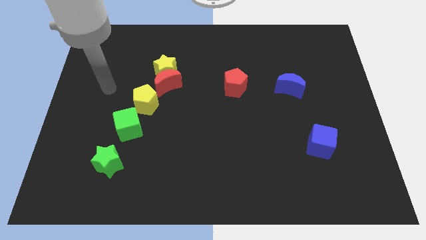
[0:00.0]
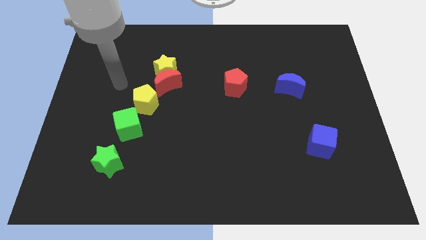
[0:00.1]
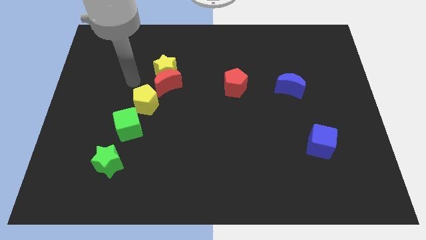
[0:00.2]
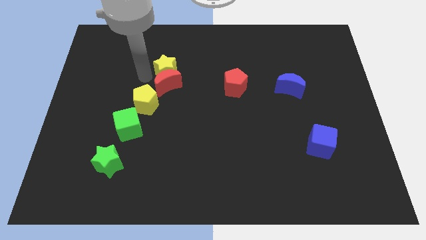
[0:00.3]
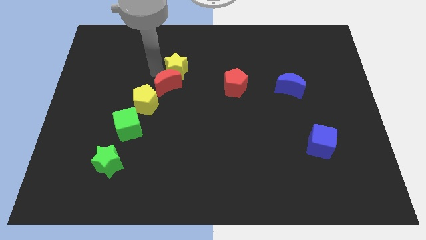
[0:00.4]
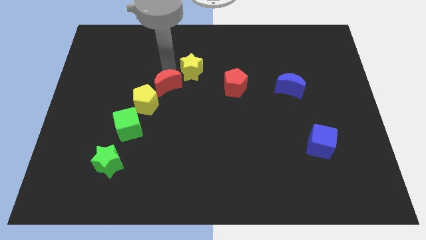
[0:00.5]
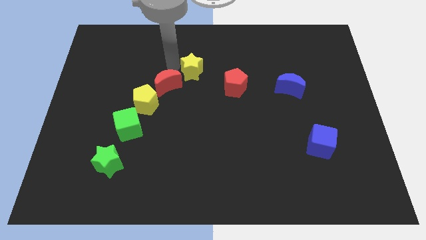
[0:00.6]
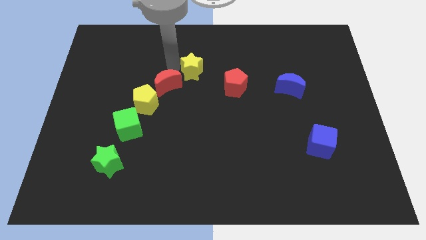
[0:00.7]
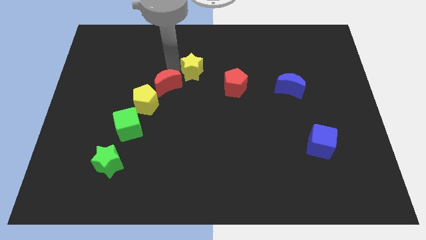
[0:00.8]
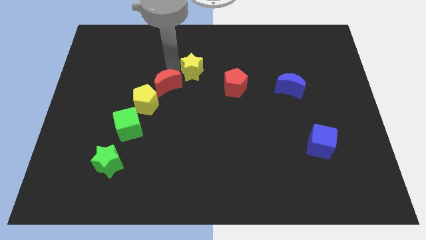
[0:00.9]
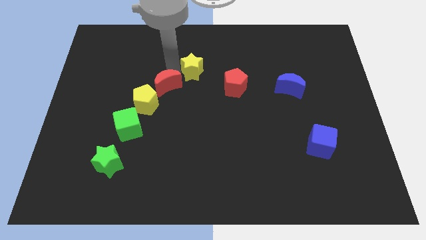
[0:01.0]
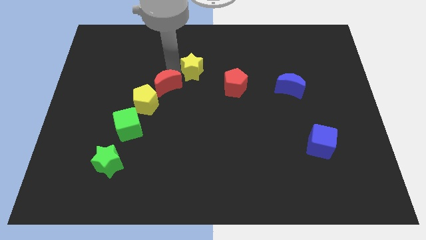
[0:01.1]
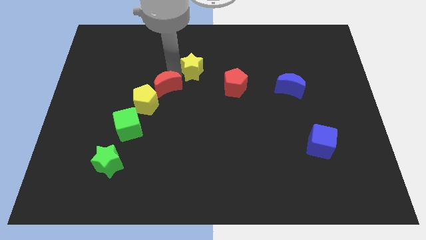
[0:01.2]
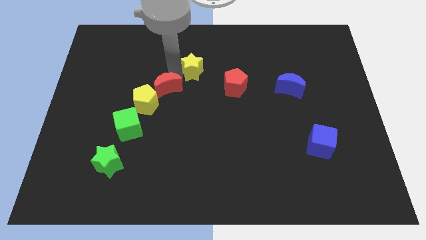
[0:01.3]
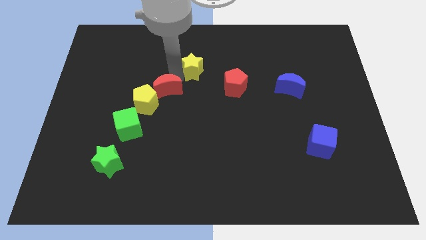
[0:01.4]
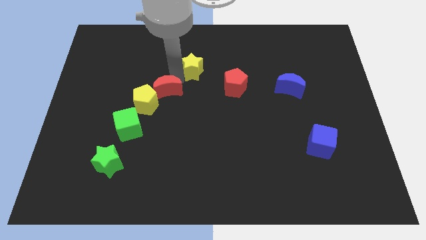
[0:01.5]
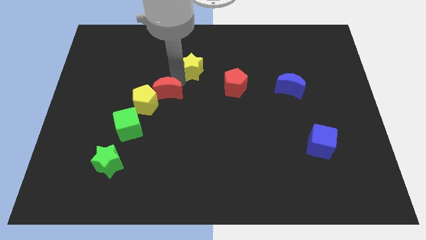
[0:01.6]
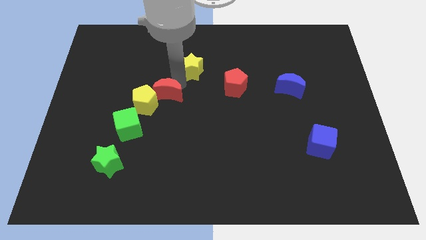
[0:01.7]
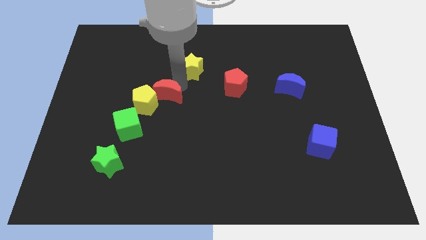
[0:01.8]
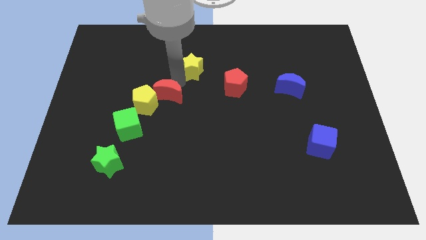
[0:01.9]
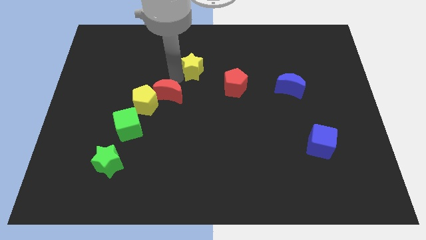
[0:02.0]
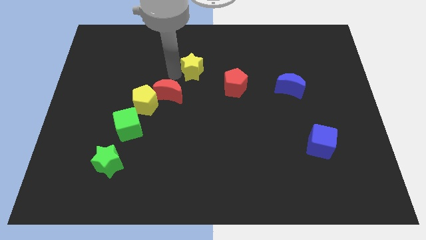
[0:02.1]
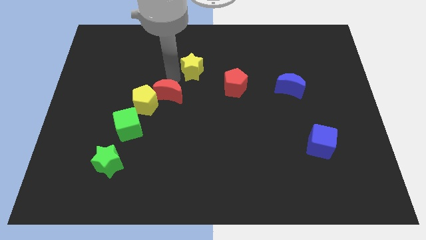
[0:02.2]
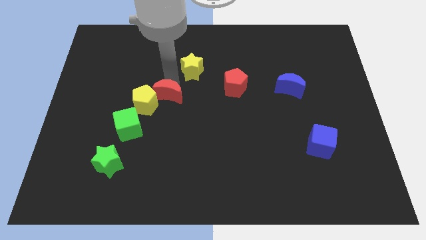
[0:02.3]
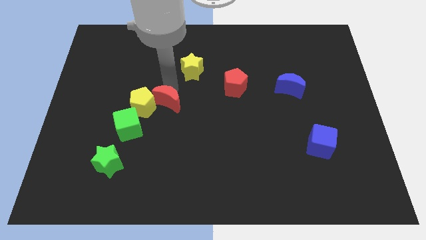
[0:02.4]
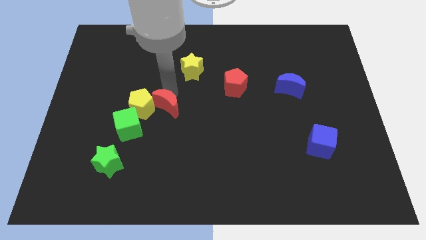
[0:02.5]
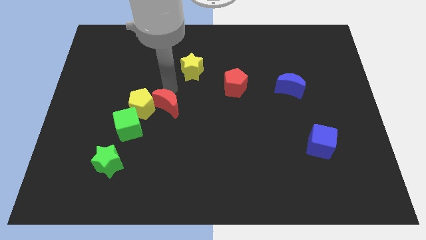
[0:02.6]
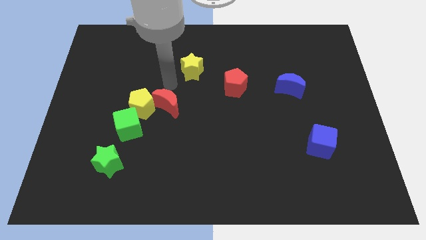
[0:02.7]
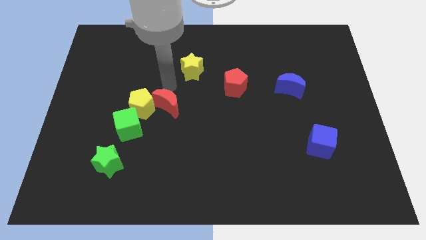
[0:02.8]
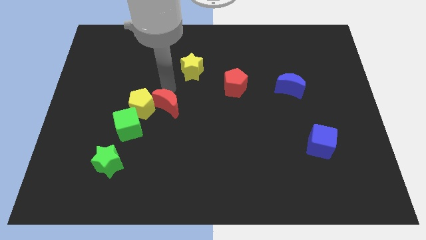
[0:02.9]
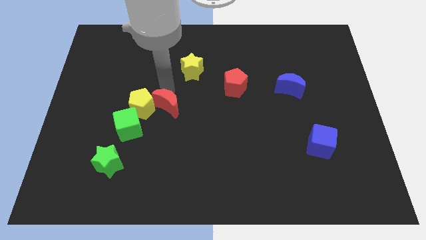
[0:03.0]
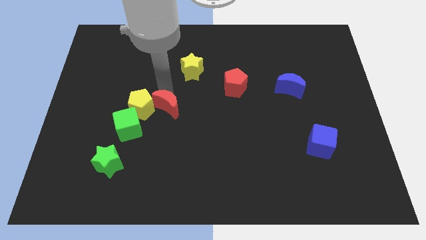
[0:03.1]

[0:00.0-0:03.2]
move the red moon down a little

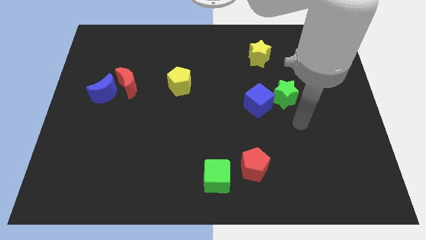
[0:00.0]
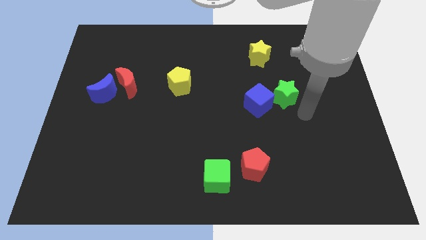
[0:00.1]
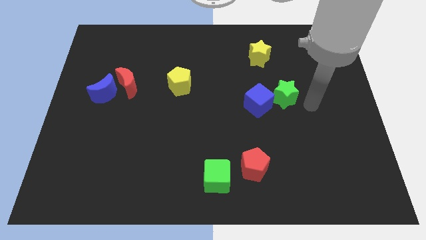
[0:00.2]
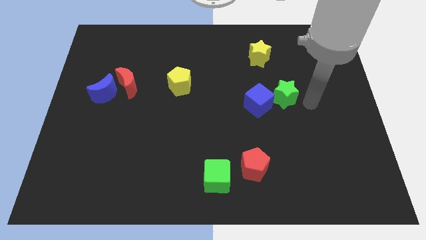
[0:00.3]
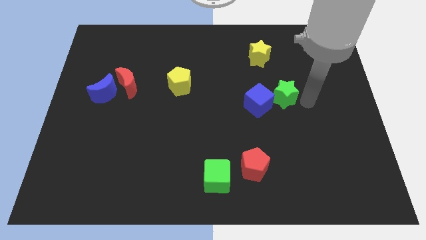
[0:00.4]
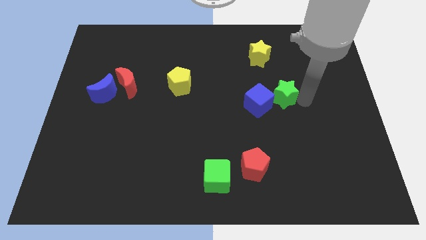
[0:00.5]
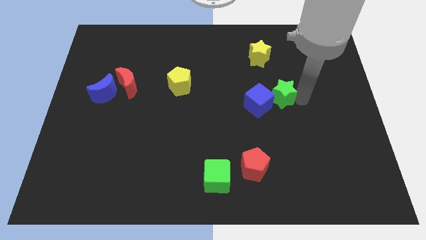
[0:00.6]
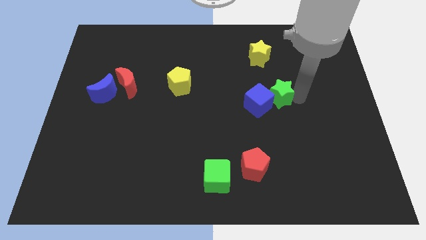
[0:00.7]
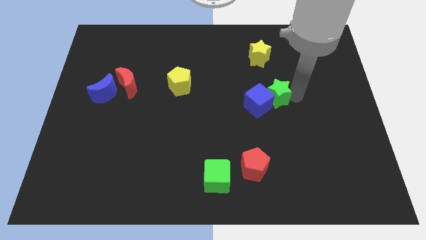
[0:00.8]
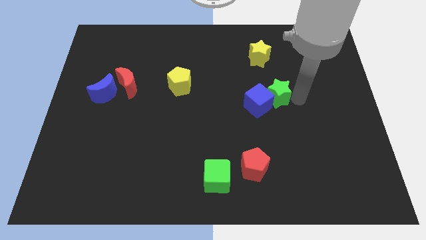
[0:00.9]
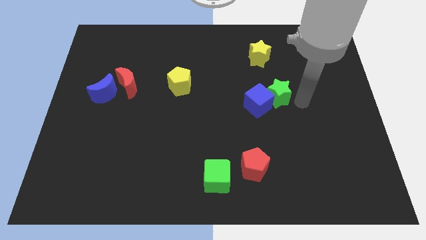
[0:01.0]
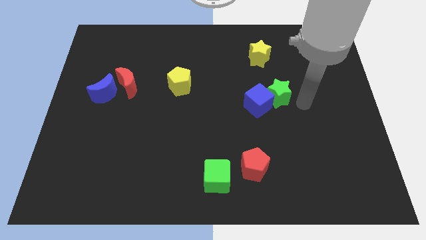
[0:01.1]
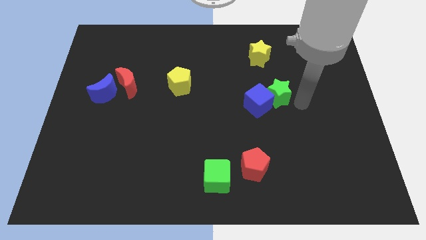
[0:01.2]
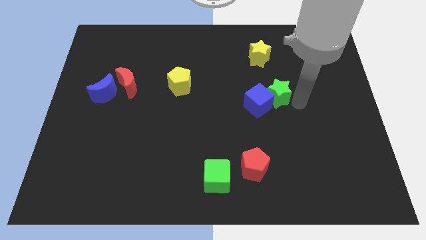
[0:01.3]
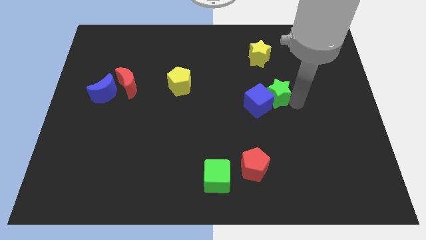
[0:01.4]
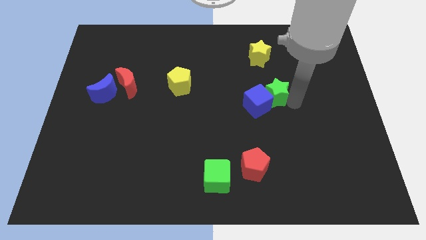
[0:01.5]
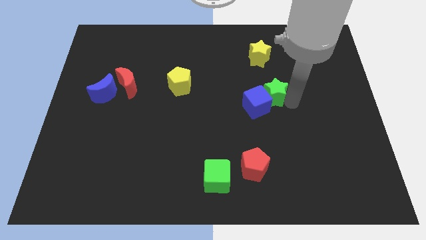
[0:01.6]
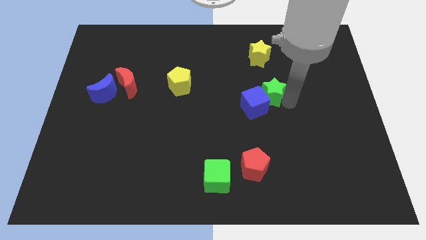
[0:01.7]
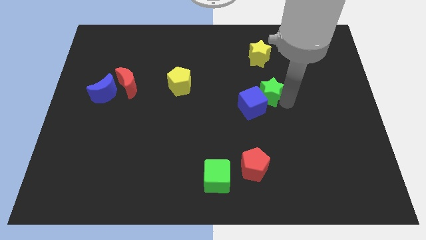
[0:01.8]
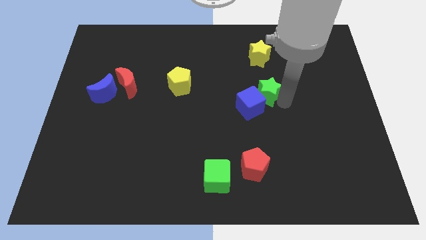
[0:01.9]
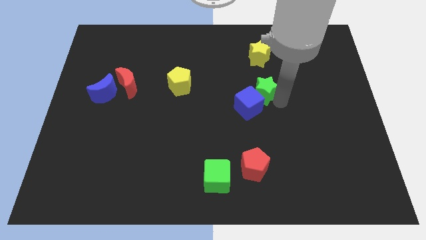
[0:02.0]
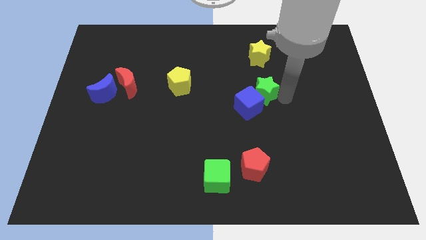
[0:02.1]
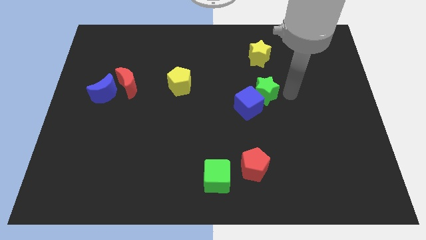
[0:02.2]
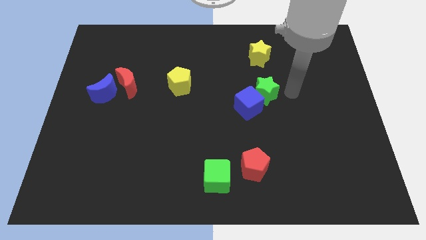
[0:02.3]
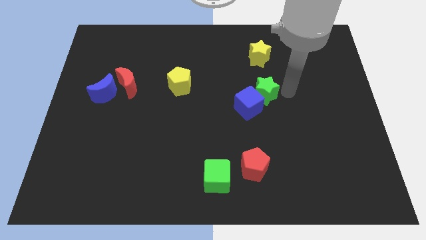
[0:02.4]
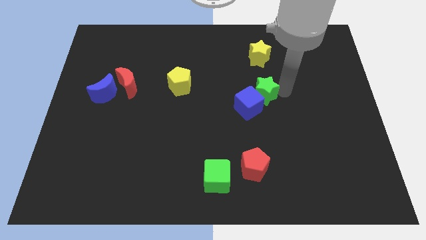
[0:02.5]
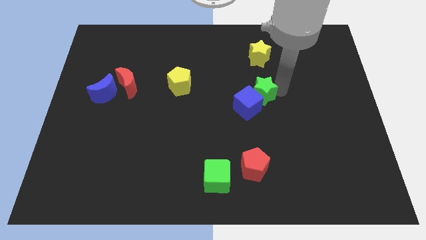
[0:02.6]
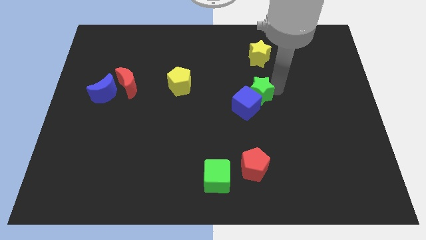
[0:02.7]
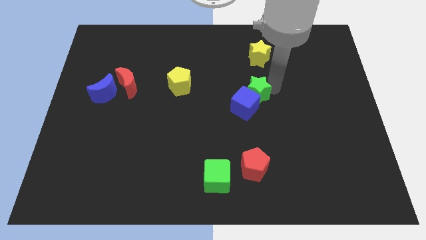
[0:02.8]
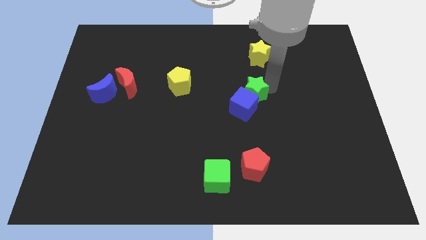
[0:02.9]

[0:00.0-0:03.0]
push the green star slightly left

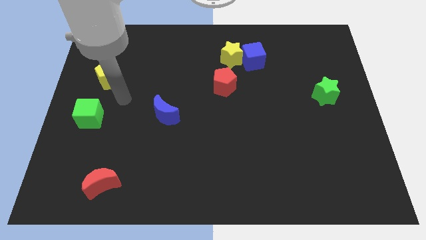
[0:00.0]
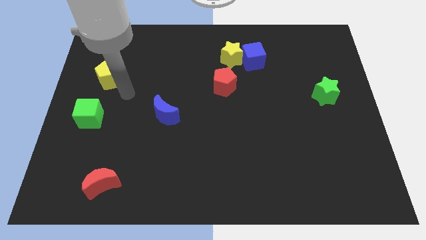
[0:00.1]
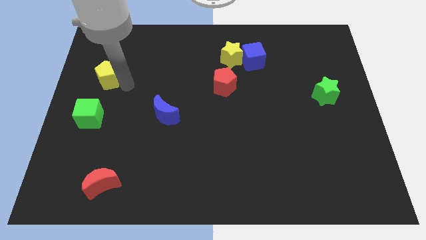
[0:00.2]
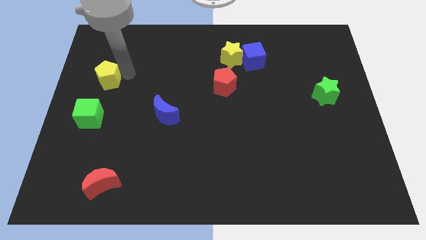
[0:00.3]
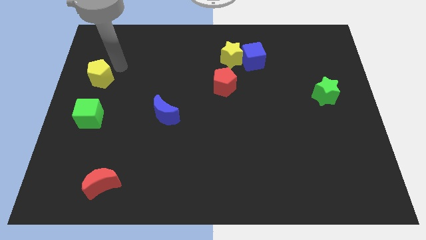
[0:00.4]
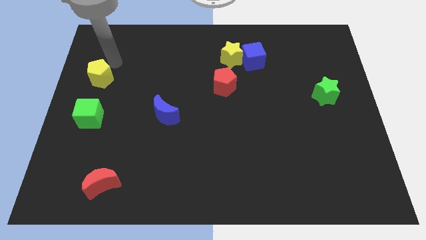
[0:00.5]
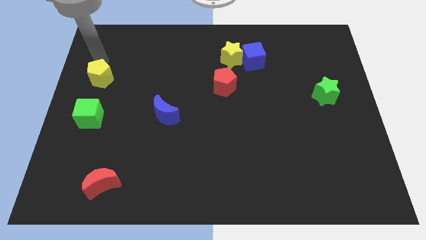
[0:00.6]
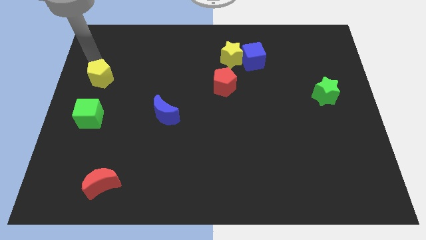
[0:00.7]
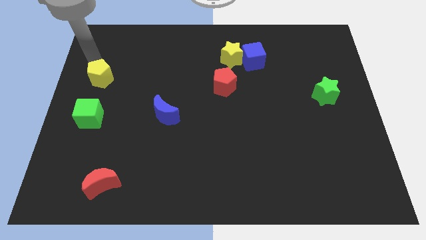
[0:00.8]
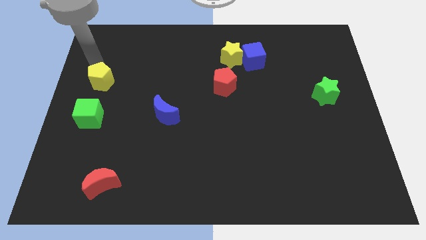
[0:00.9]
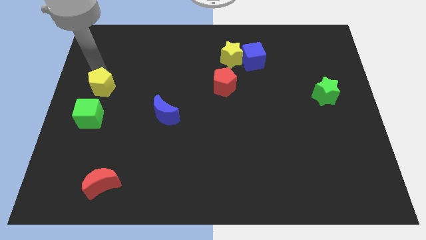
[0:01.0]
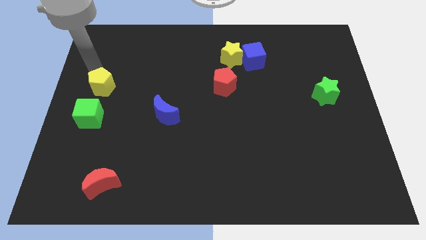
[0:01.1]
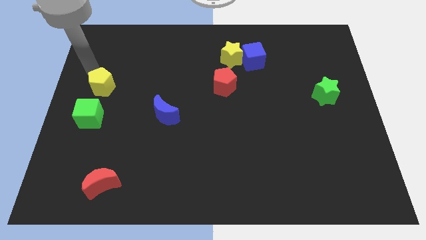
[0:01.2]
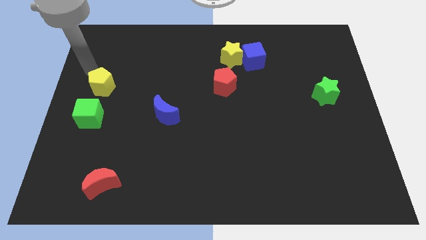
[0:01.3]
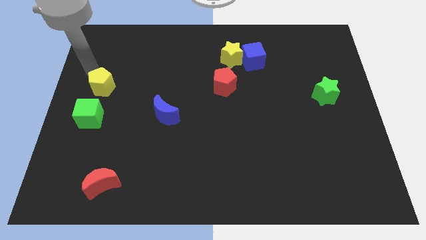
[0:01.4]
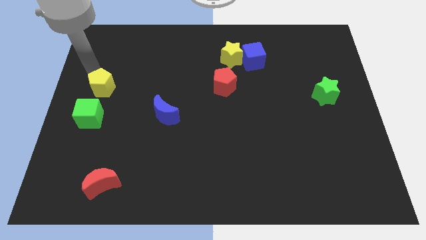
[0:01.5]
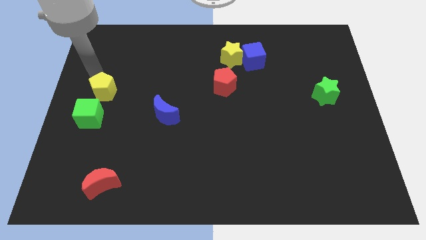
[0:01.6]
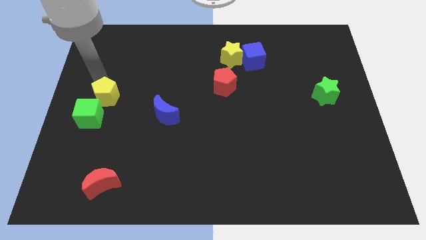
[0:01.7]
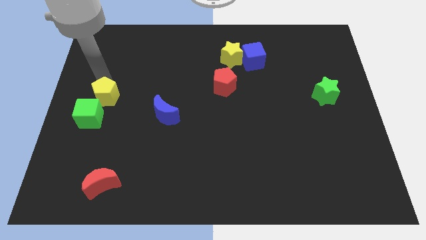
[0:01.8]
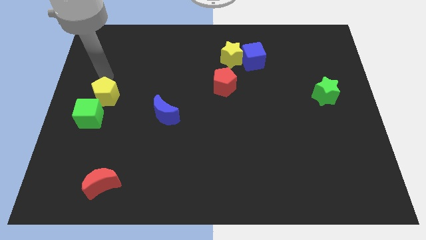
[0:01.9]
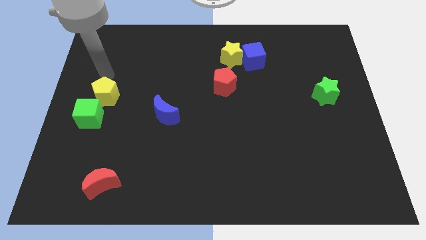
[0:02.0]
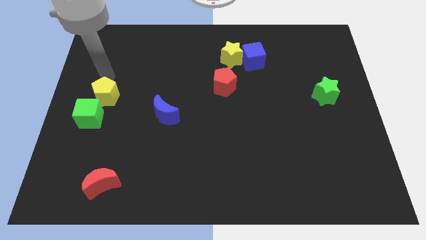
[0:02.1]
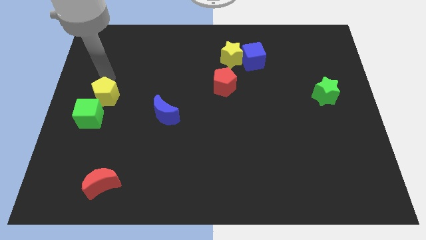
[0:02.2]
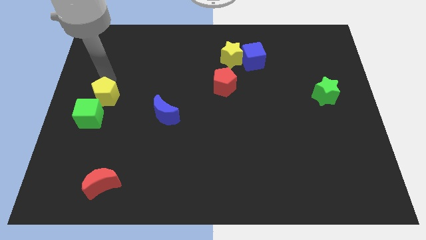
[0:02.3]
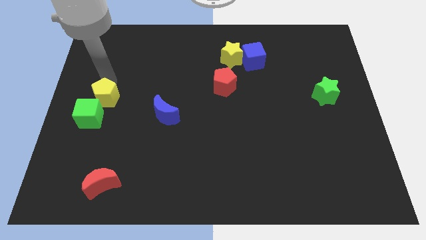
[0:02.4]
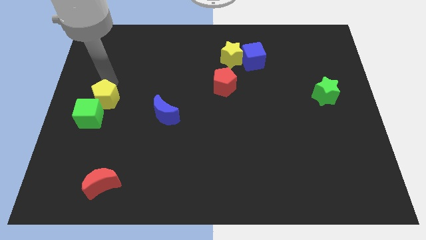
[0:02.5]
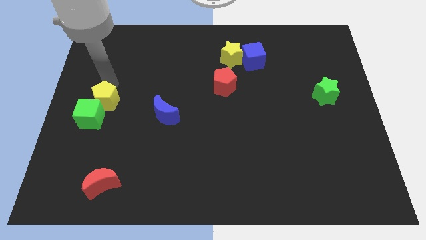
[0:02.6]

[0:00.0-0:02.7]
move the yellow pentagon downwards a bit
